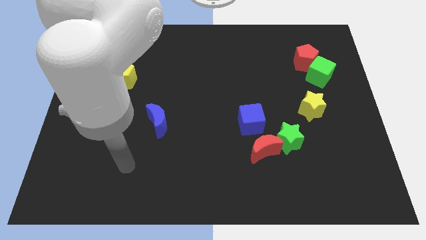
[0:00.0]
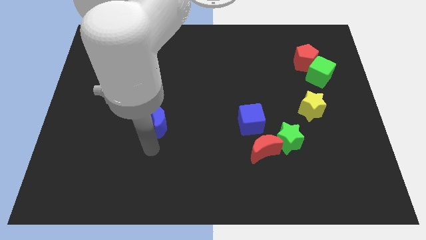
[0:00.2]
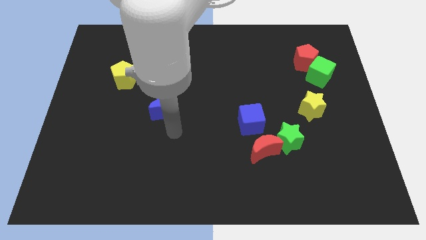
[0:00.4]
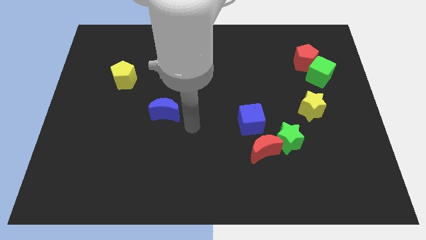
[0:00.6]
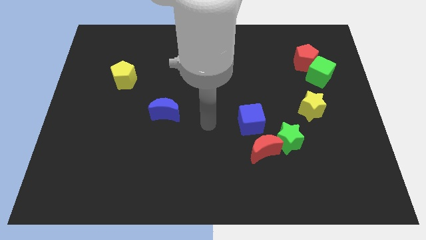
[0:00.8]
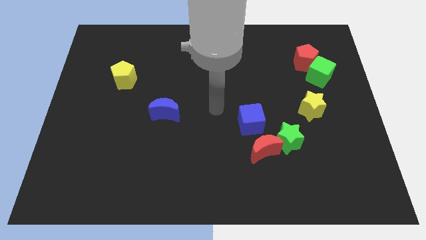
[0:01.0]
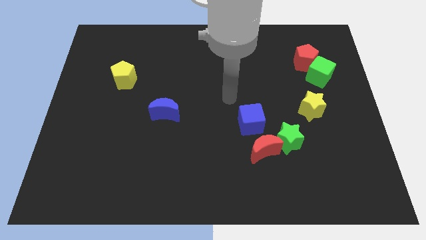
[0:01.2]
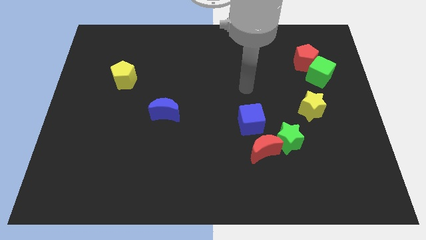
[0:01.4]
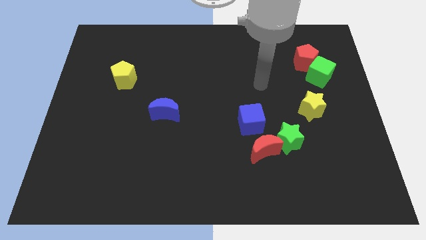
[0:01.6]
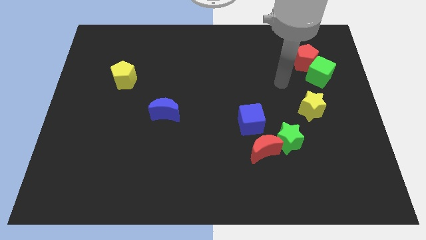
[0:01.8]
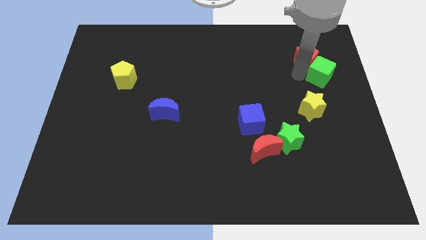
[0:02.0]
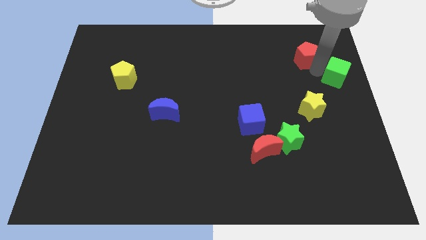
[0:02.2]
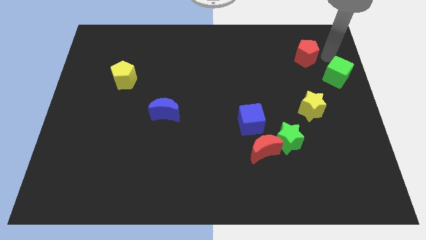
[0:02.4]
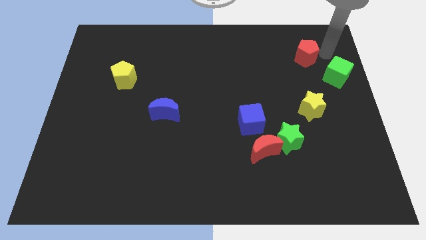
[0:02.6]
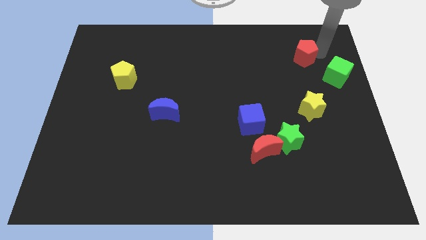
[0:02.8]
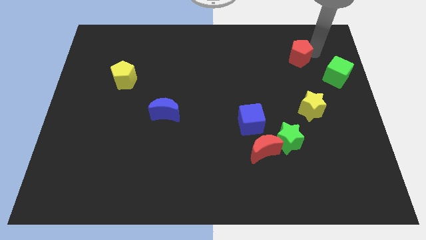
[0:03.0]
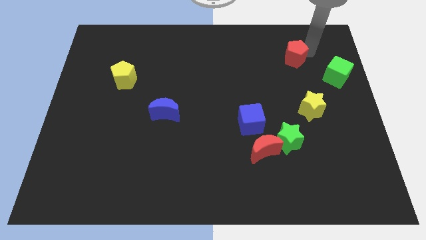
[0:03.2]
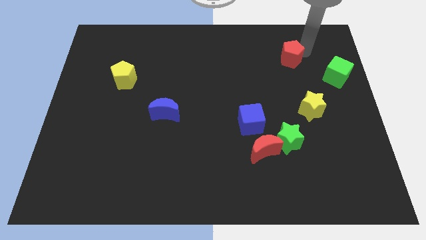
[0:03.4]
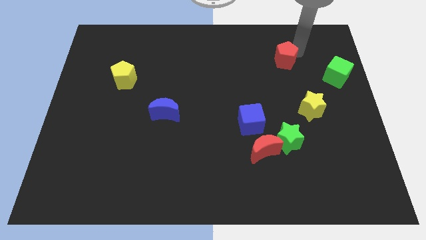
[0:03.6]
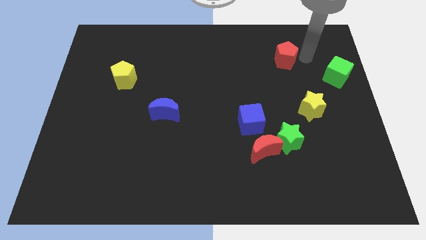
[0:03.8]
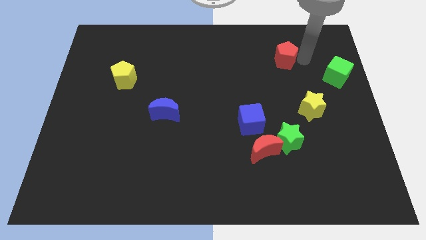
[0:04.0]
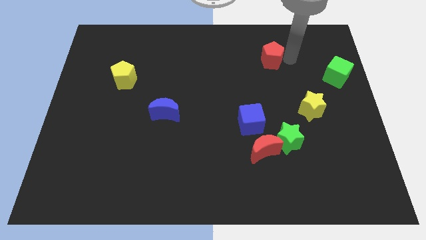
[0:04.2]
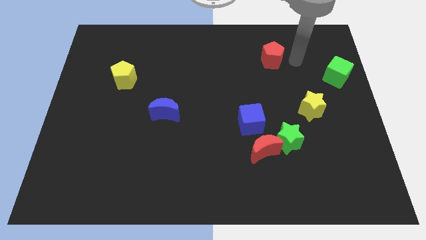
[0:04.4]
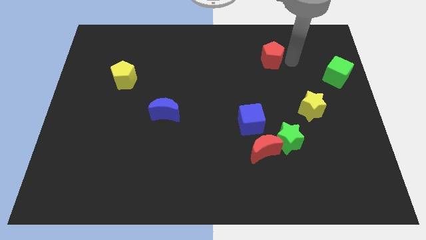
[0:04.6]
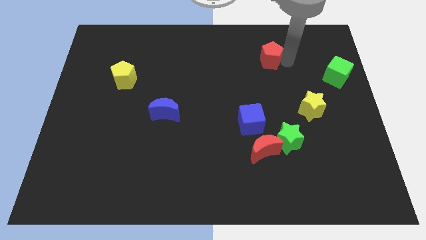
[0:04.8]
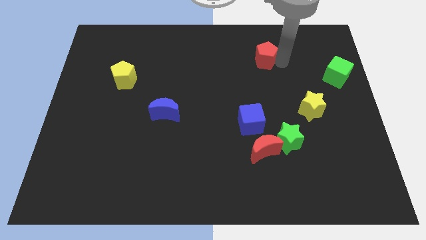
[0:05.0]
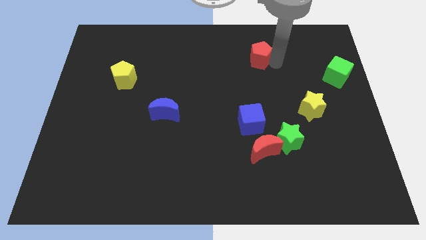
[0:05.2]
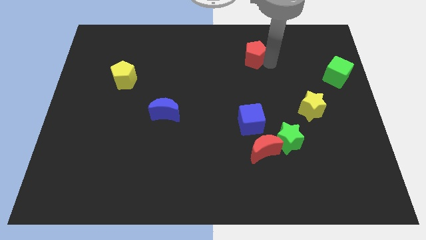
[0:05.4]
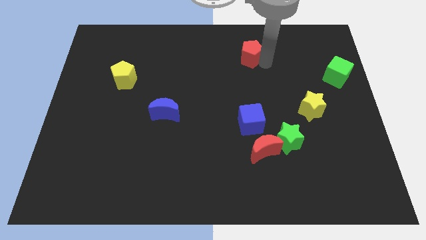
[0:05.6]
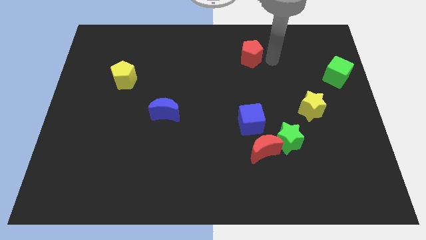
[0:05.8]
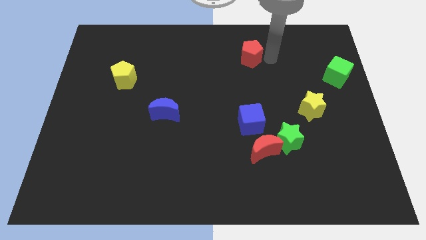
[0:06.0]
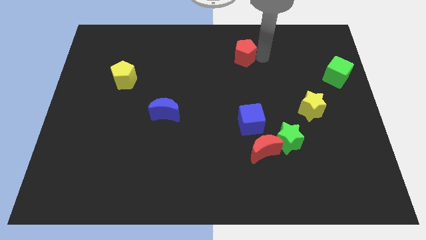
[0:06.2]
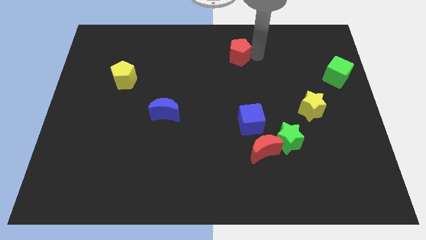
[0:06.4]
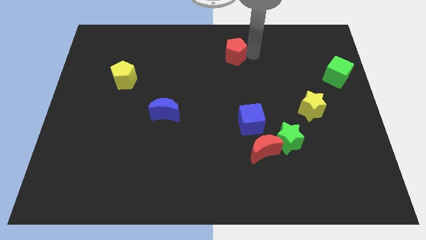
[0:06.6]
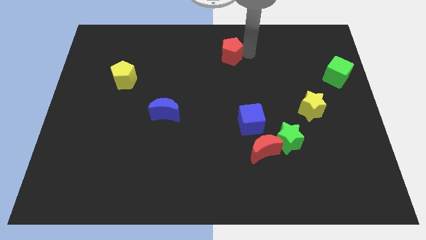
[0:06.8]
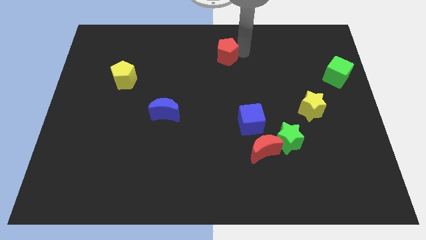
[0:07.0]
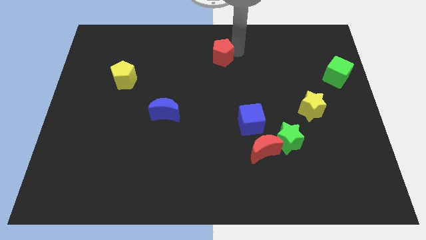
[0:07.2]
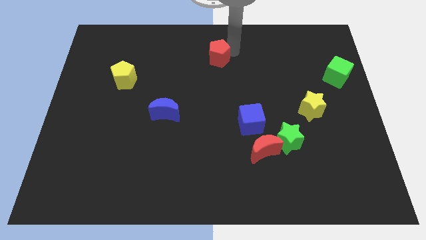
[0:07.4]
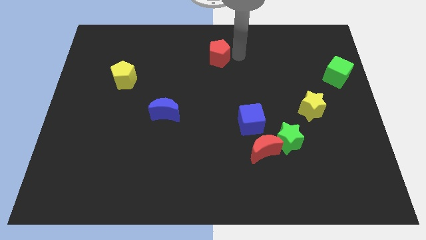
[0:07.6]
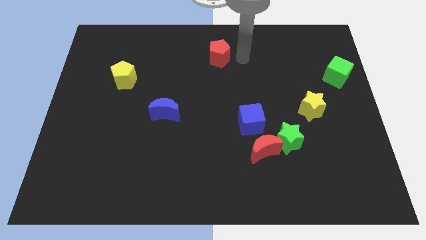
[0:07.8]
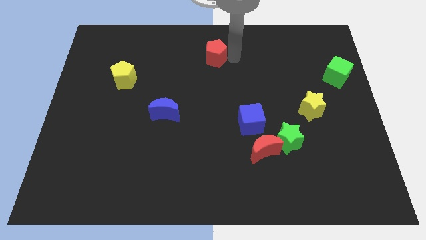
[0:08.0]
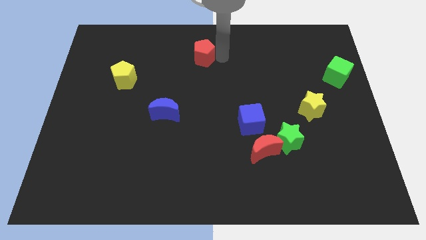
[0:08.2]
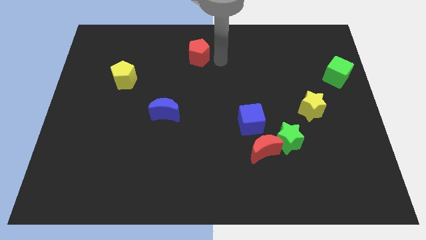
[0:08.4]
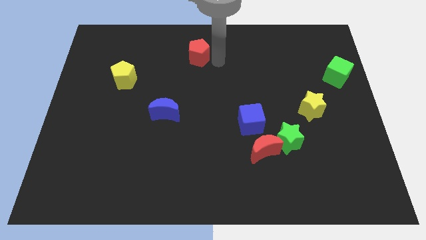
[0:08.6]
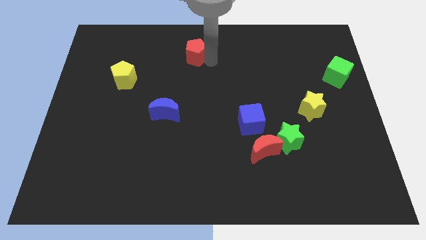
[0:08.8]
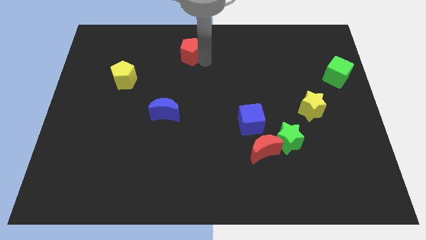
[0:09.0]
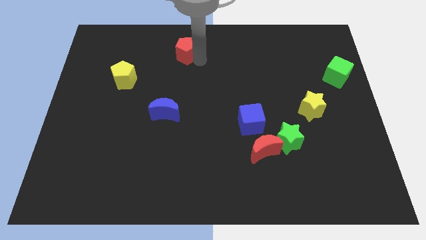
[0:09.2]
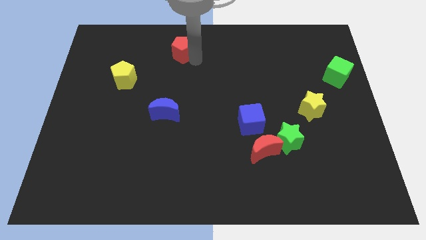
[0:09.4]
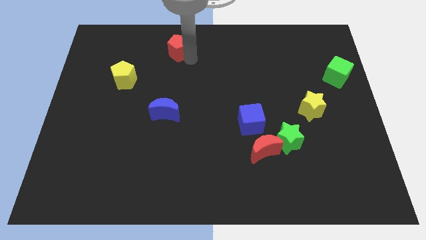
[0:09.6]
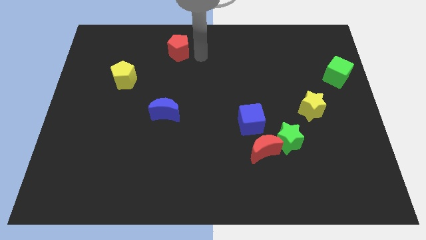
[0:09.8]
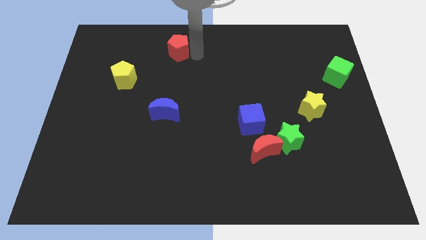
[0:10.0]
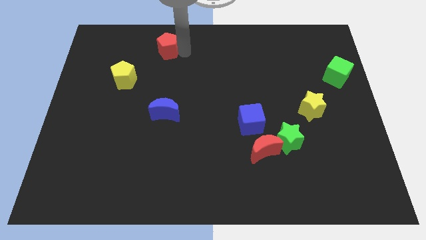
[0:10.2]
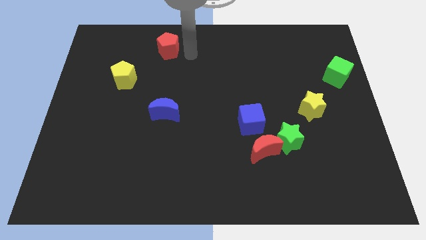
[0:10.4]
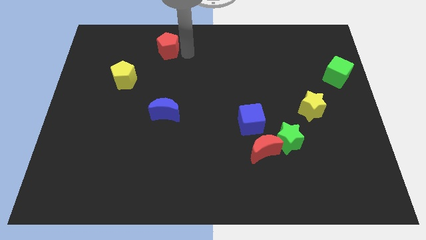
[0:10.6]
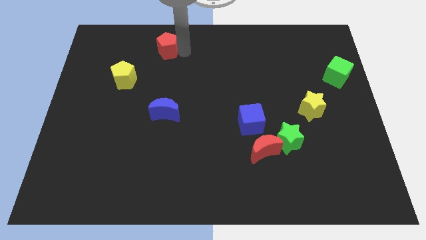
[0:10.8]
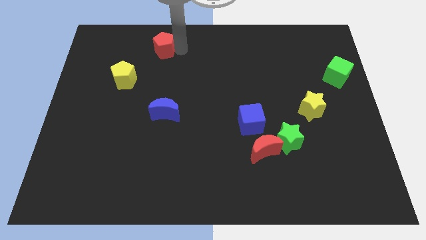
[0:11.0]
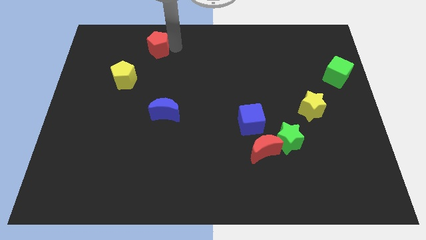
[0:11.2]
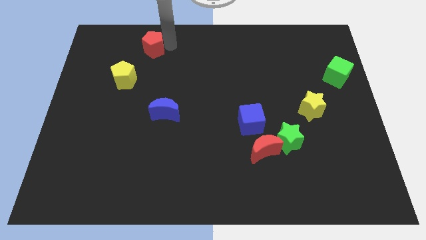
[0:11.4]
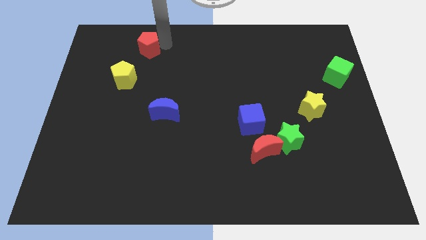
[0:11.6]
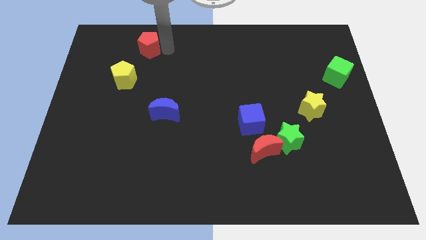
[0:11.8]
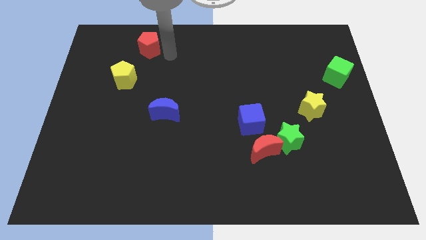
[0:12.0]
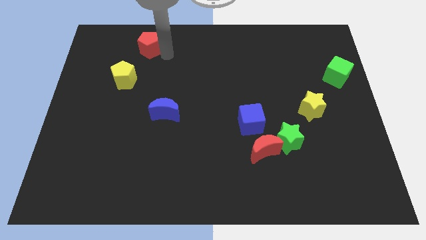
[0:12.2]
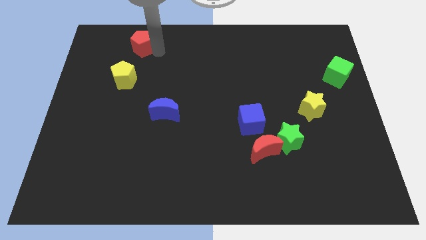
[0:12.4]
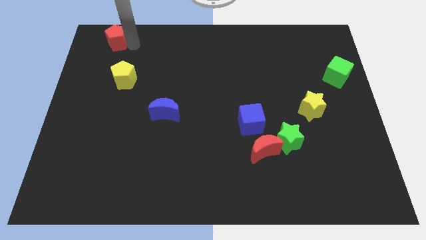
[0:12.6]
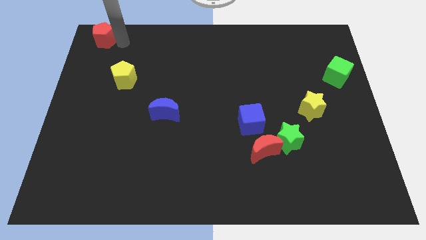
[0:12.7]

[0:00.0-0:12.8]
move the red pentagon to the upper left corner
